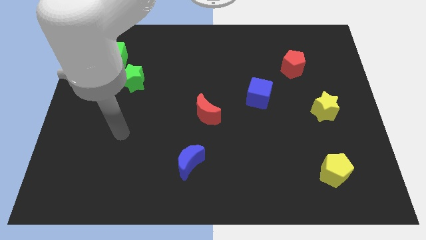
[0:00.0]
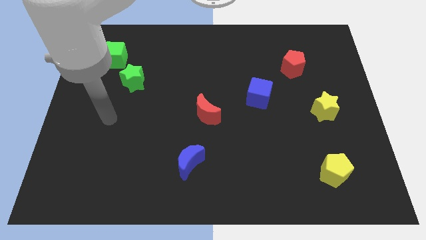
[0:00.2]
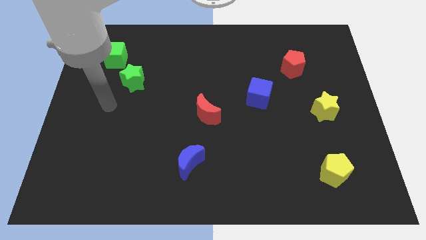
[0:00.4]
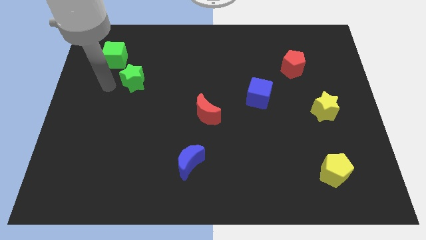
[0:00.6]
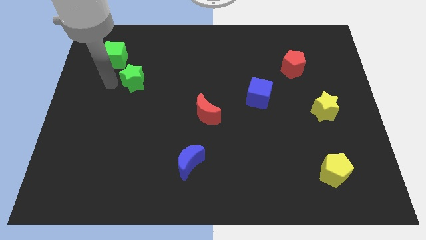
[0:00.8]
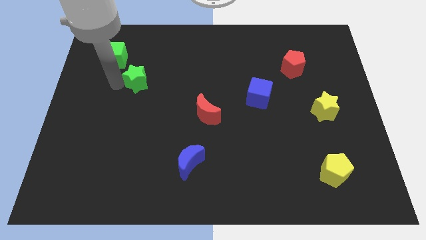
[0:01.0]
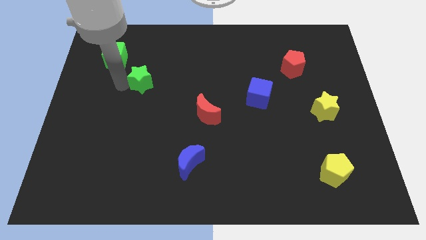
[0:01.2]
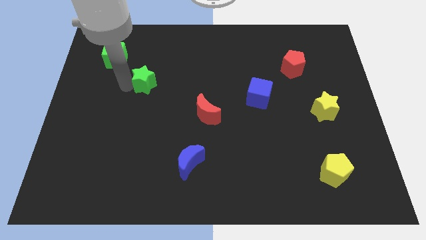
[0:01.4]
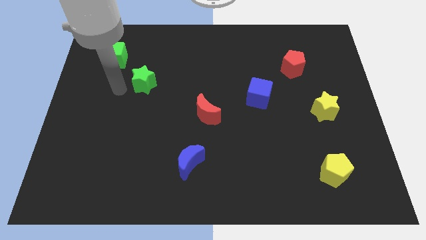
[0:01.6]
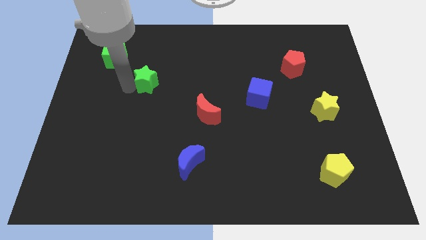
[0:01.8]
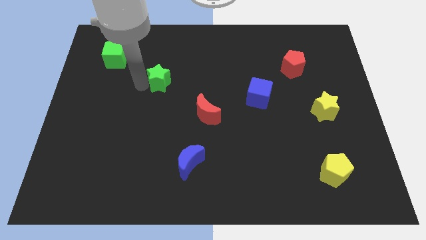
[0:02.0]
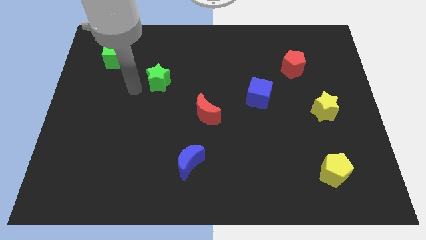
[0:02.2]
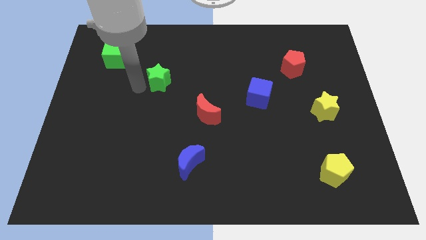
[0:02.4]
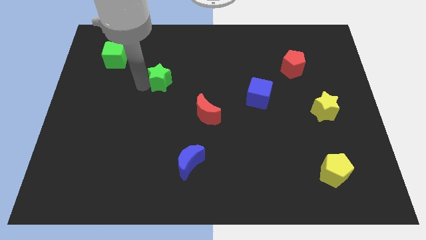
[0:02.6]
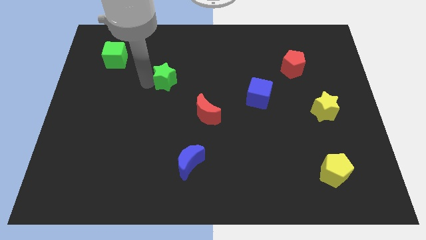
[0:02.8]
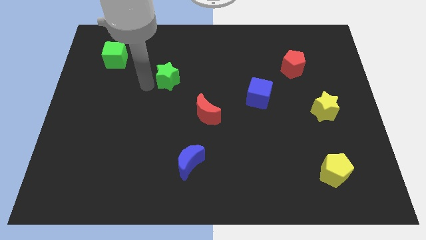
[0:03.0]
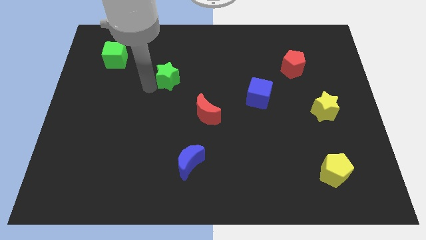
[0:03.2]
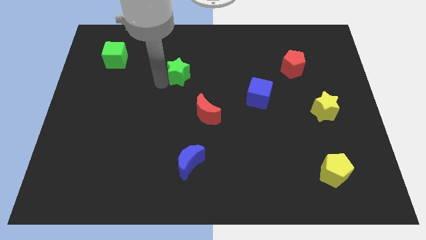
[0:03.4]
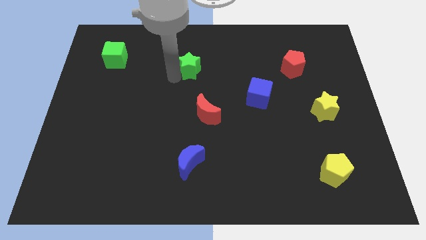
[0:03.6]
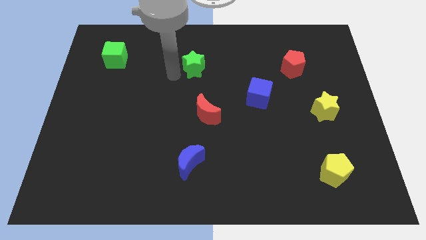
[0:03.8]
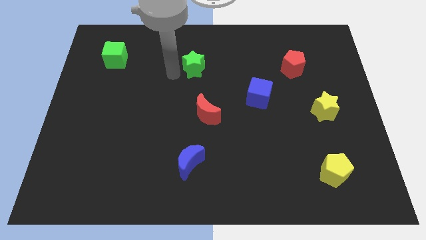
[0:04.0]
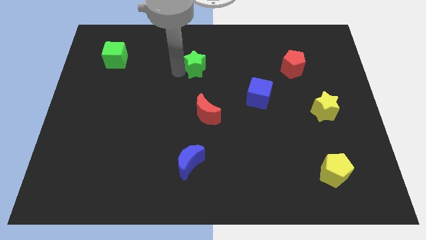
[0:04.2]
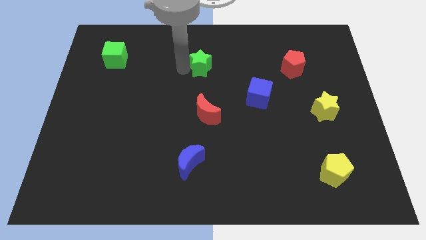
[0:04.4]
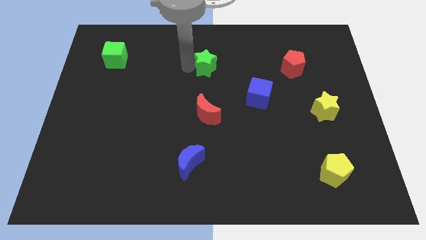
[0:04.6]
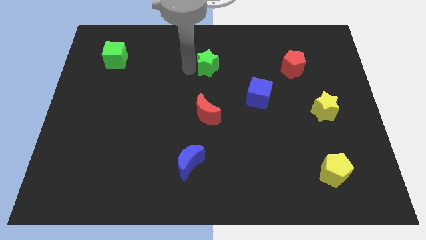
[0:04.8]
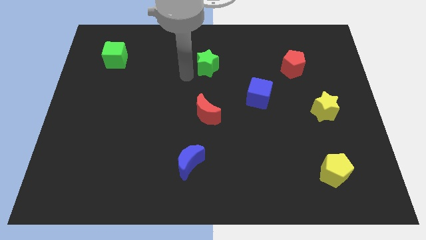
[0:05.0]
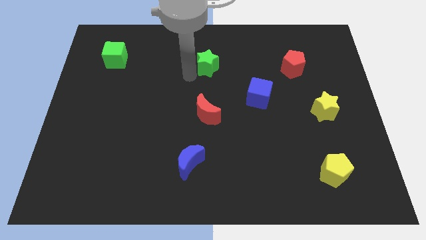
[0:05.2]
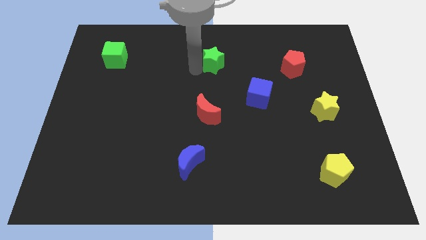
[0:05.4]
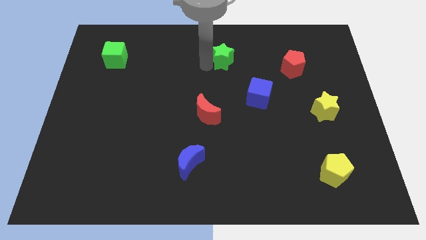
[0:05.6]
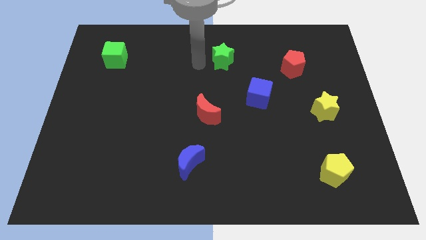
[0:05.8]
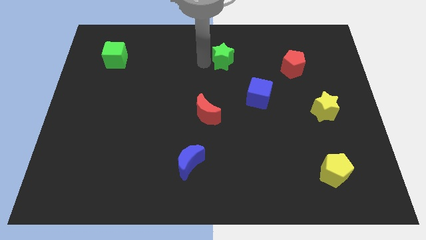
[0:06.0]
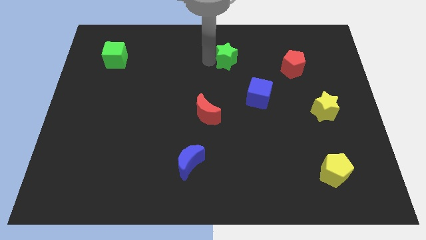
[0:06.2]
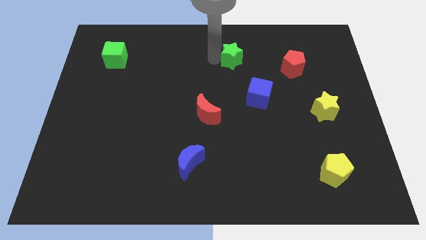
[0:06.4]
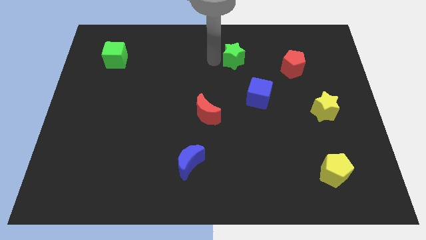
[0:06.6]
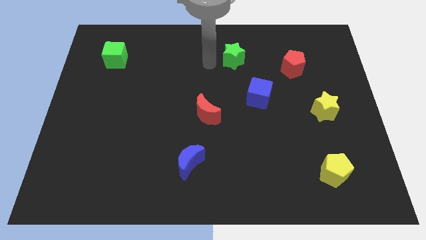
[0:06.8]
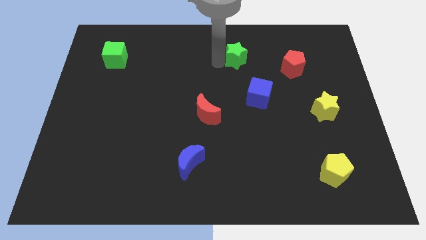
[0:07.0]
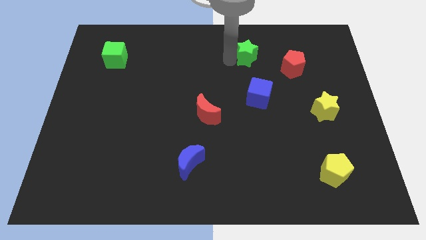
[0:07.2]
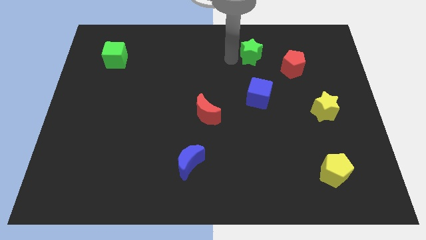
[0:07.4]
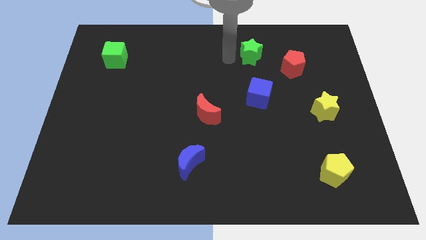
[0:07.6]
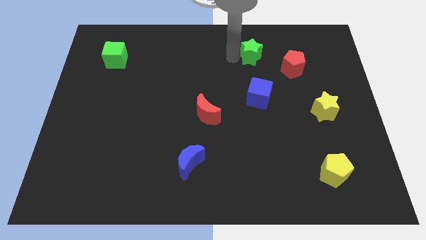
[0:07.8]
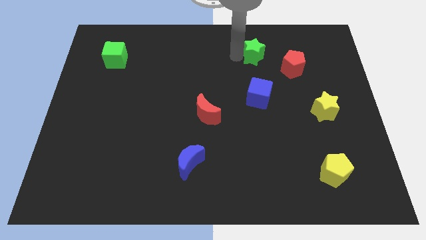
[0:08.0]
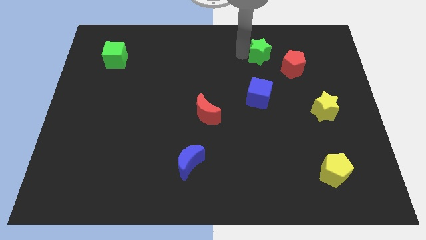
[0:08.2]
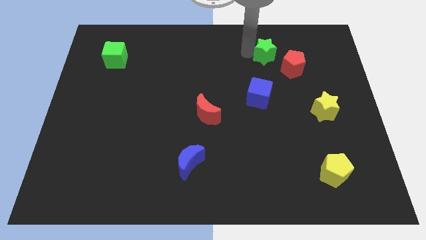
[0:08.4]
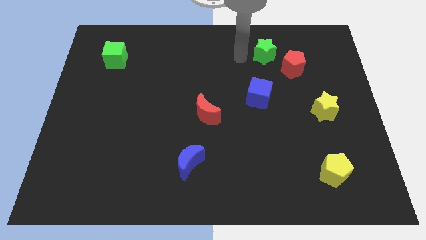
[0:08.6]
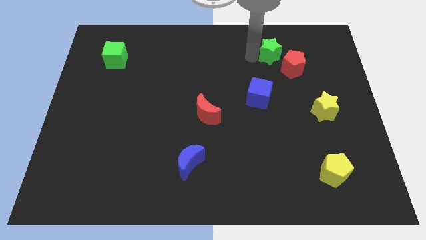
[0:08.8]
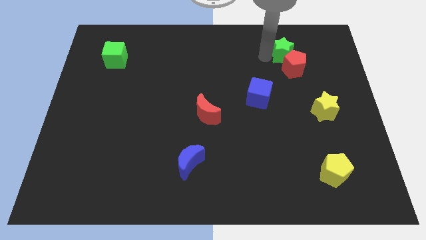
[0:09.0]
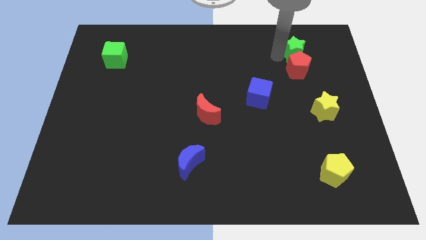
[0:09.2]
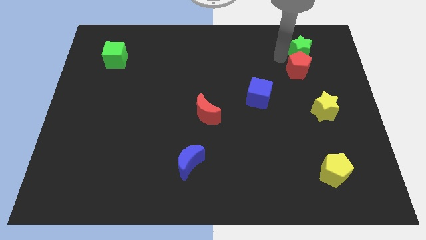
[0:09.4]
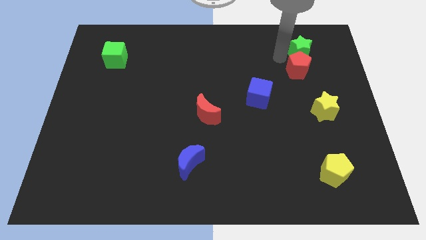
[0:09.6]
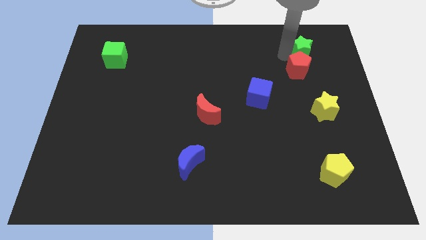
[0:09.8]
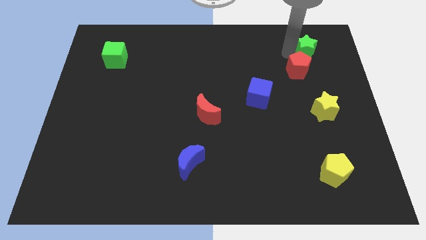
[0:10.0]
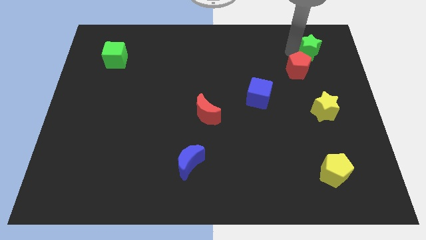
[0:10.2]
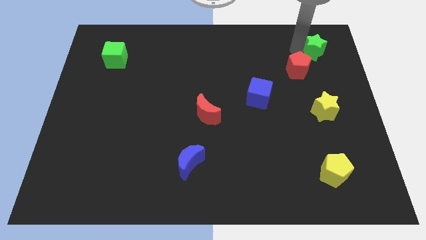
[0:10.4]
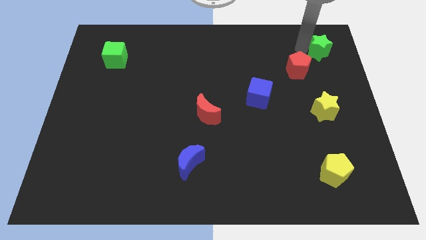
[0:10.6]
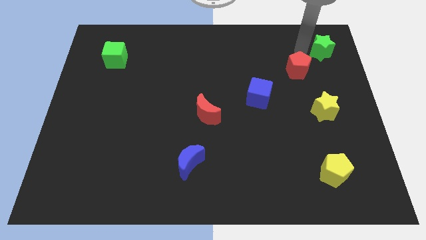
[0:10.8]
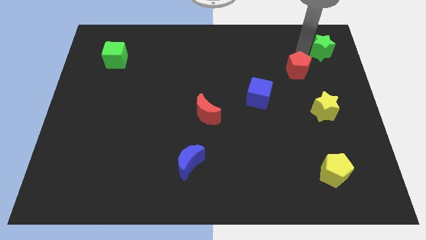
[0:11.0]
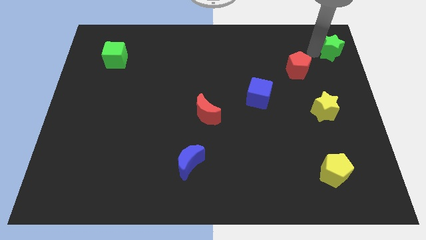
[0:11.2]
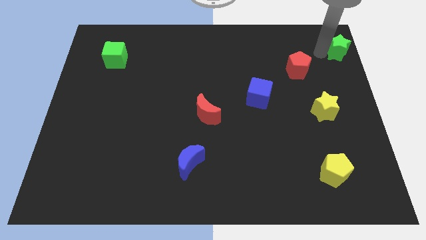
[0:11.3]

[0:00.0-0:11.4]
slide the green star to the top right of the board

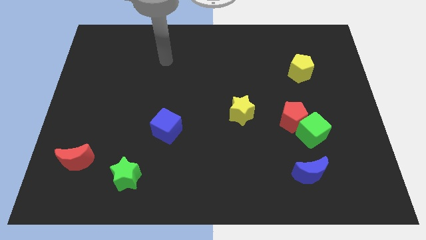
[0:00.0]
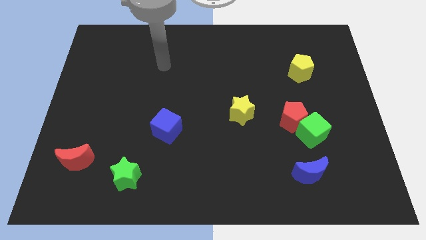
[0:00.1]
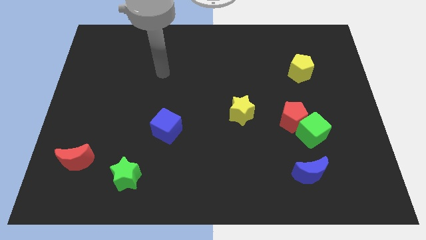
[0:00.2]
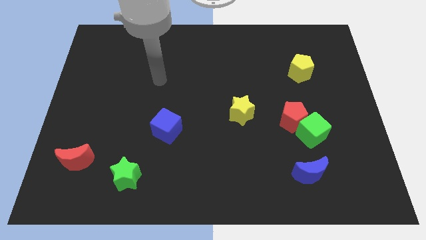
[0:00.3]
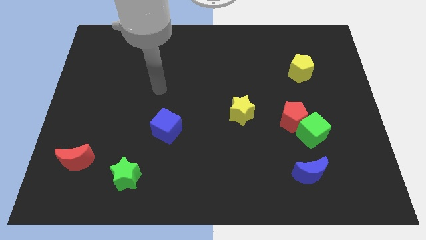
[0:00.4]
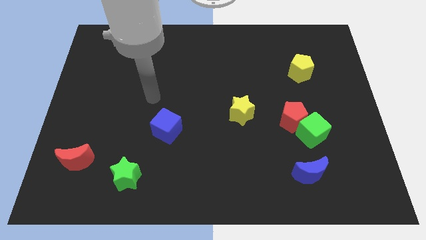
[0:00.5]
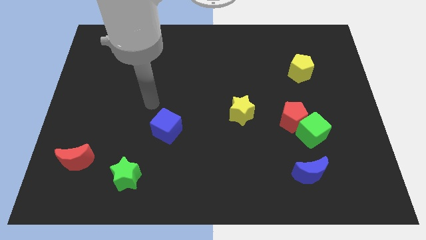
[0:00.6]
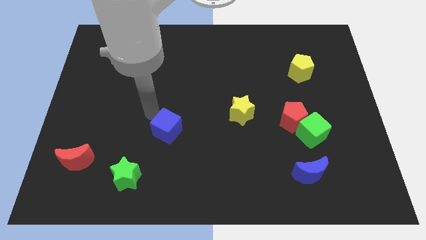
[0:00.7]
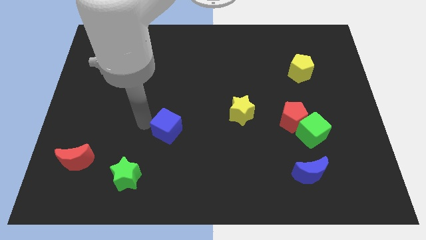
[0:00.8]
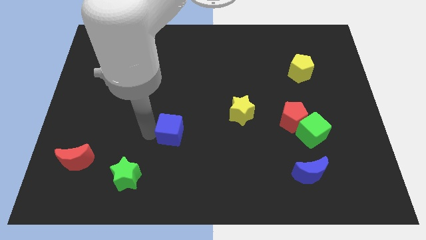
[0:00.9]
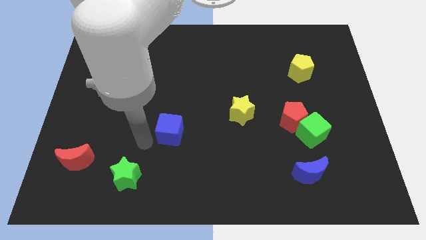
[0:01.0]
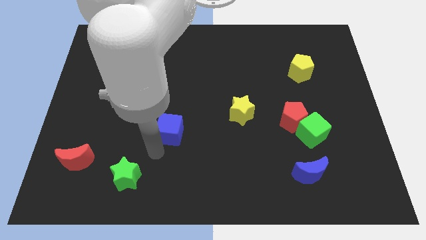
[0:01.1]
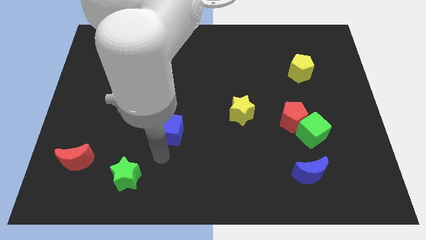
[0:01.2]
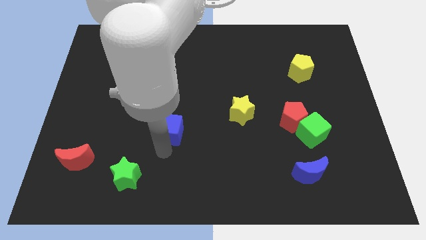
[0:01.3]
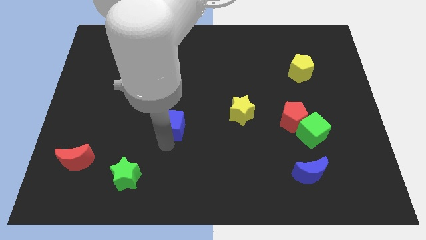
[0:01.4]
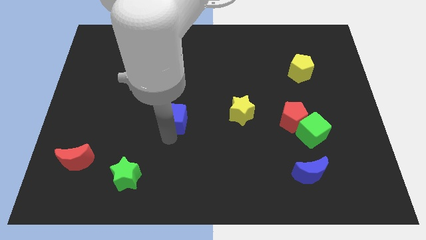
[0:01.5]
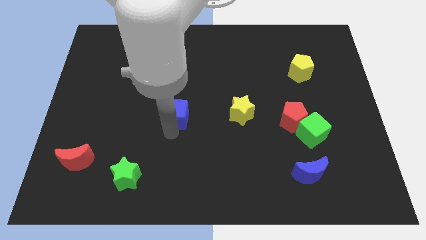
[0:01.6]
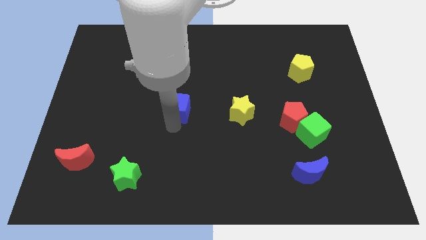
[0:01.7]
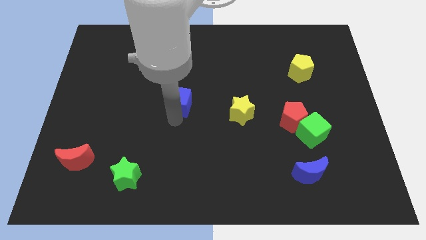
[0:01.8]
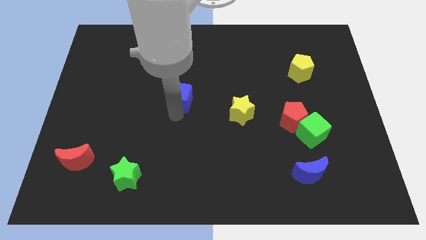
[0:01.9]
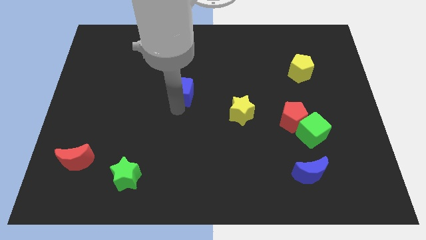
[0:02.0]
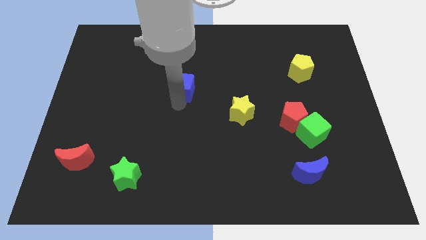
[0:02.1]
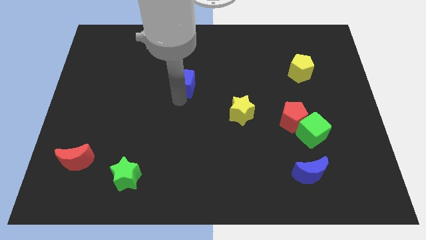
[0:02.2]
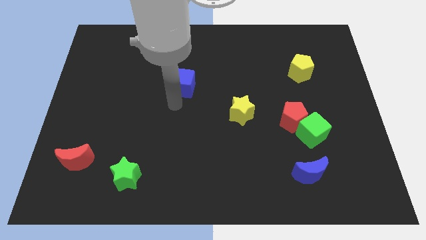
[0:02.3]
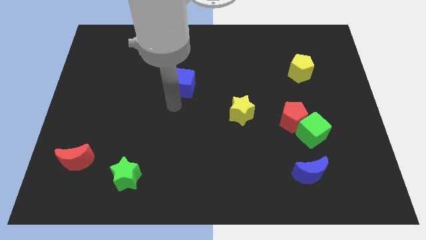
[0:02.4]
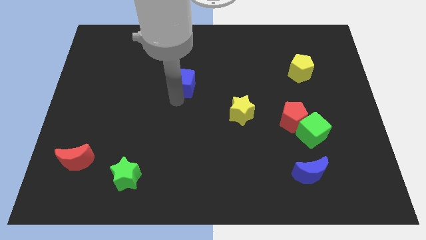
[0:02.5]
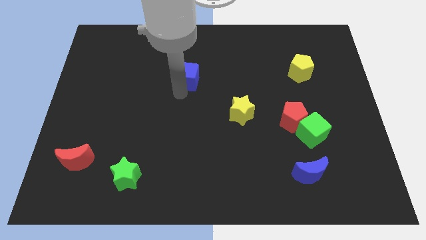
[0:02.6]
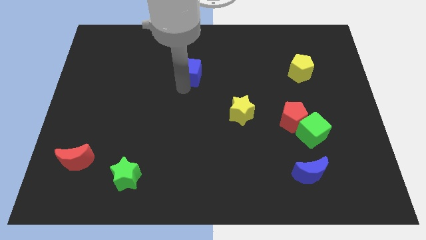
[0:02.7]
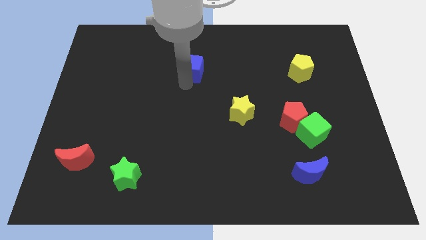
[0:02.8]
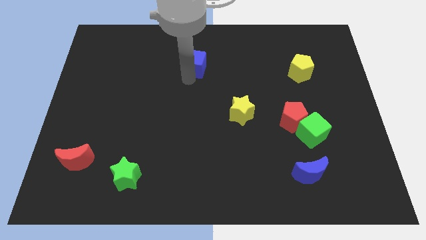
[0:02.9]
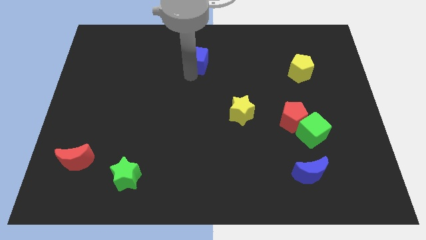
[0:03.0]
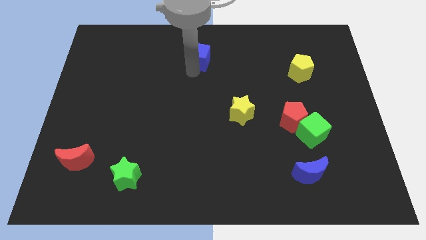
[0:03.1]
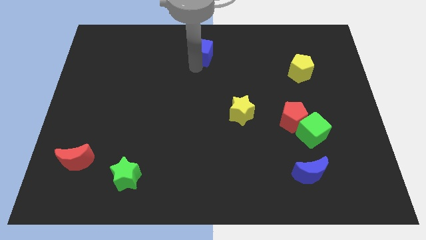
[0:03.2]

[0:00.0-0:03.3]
put the blue cube to the towards your base
